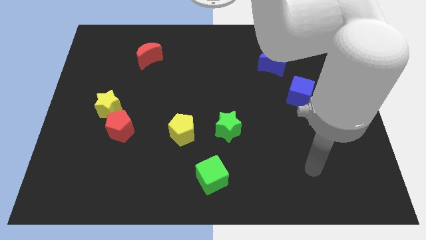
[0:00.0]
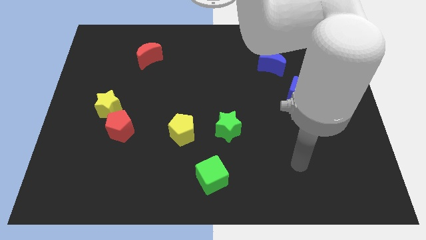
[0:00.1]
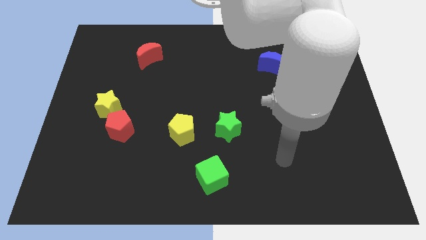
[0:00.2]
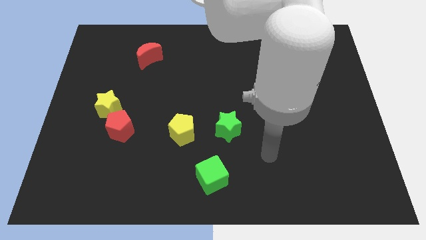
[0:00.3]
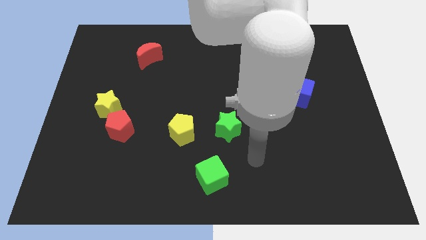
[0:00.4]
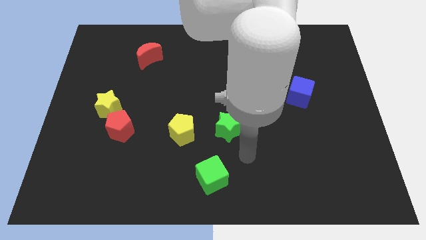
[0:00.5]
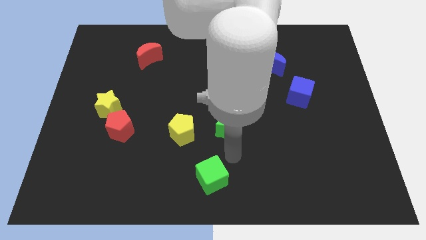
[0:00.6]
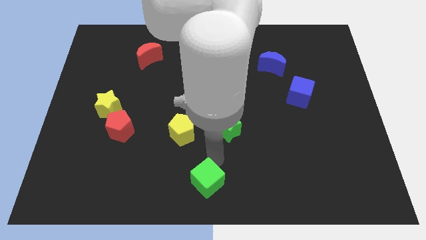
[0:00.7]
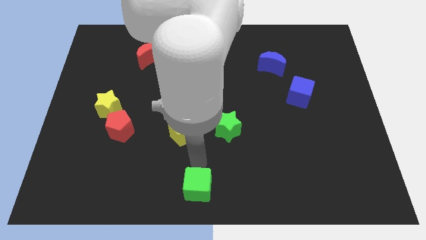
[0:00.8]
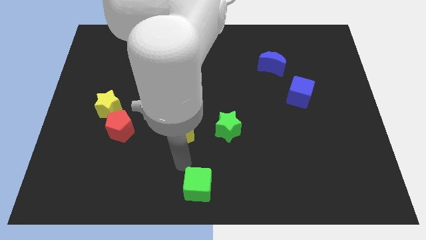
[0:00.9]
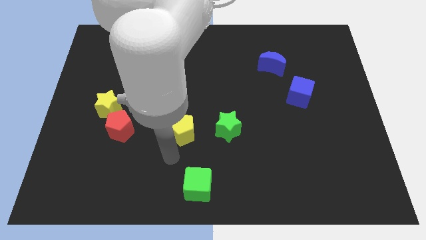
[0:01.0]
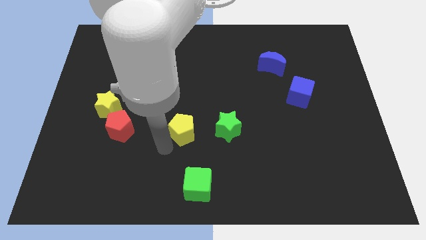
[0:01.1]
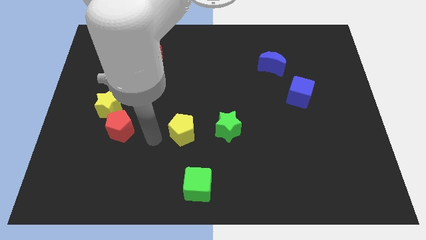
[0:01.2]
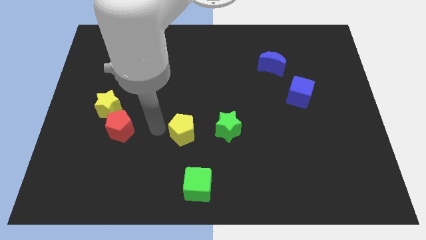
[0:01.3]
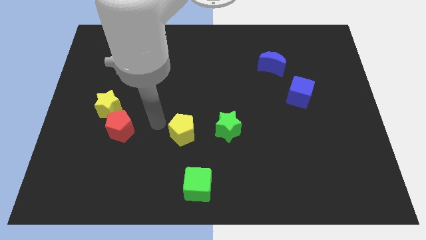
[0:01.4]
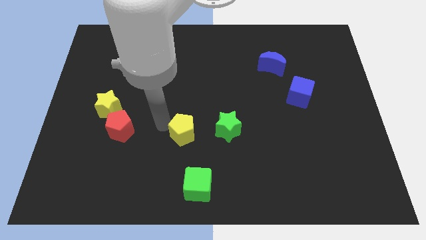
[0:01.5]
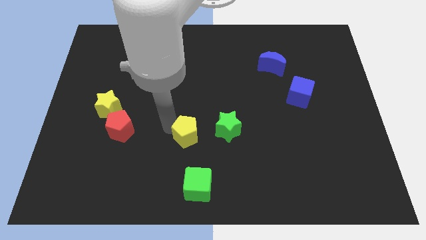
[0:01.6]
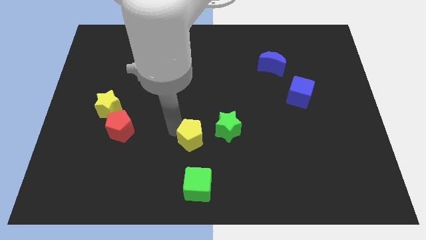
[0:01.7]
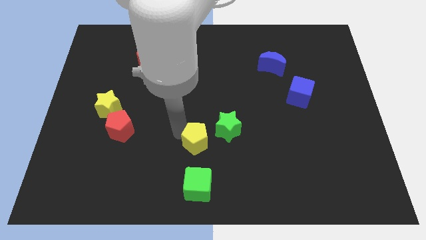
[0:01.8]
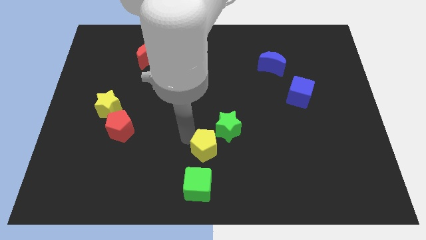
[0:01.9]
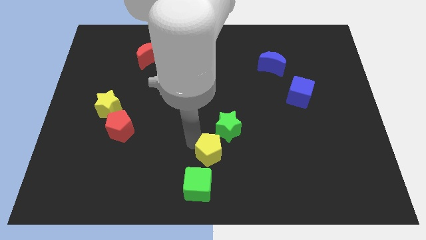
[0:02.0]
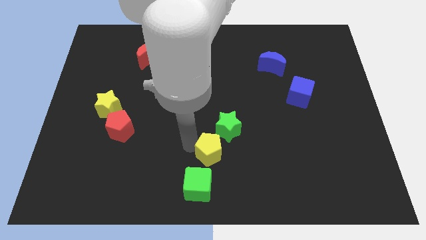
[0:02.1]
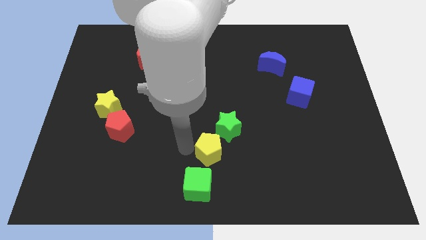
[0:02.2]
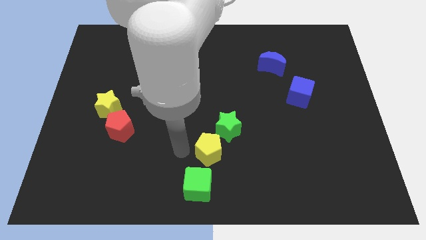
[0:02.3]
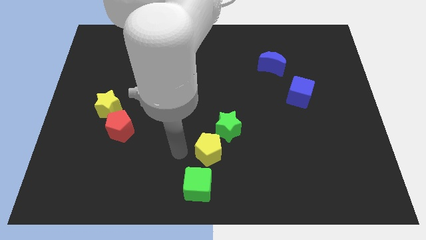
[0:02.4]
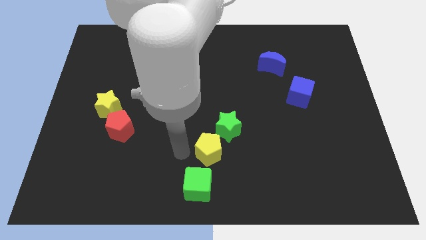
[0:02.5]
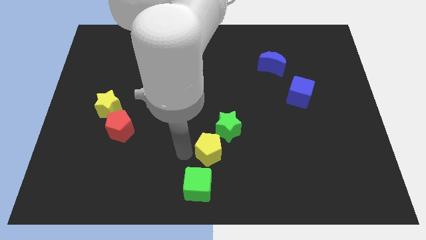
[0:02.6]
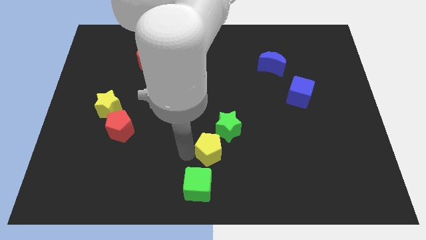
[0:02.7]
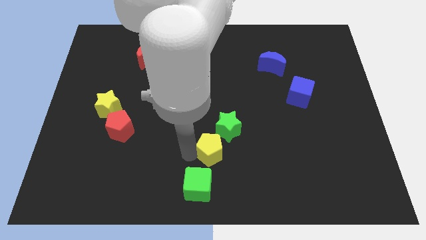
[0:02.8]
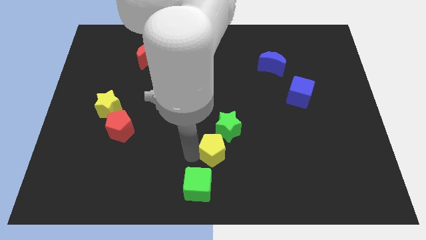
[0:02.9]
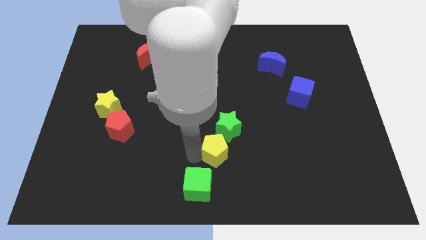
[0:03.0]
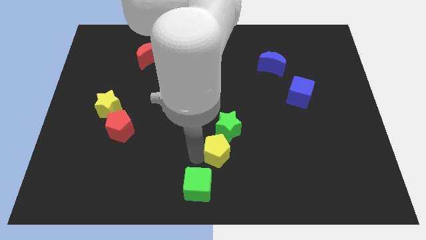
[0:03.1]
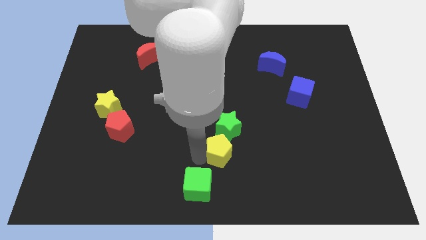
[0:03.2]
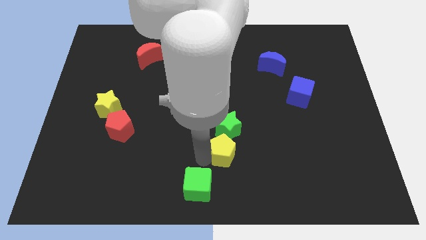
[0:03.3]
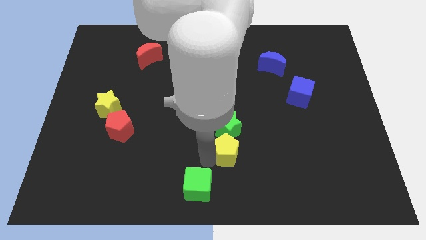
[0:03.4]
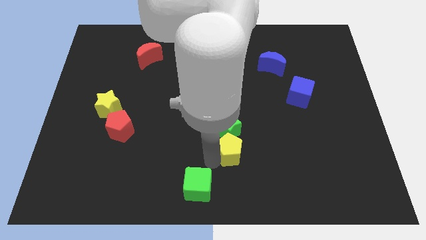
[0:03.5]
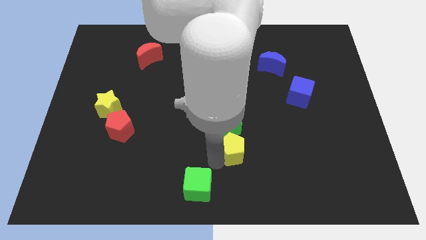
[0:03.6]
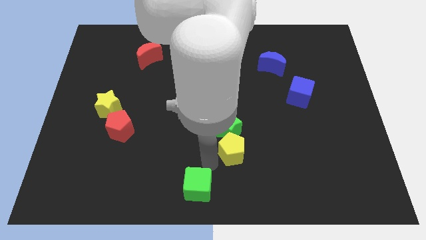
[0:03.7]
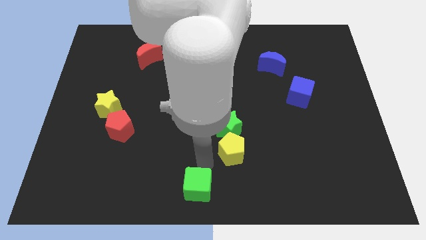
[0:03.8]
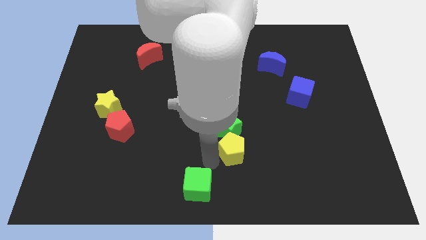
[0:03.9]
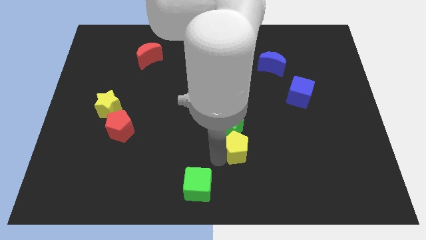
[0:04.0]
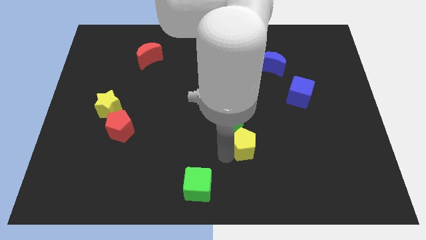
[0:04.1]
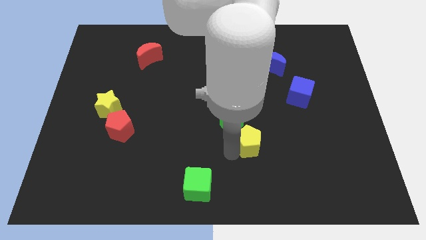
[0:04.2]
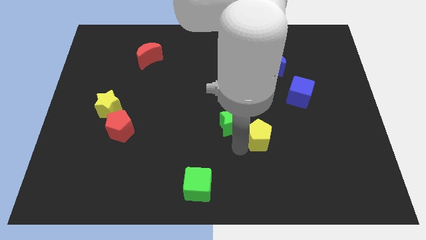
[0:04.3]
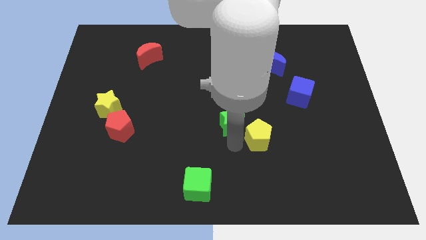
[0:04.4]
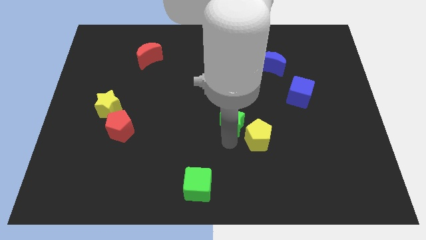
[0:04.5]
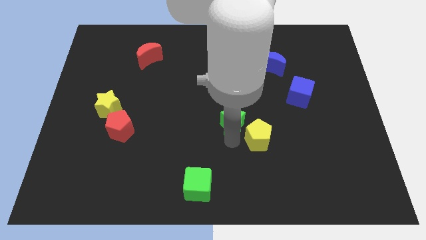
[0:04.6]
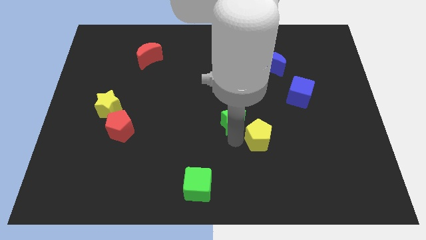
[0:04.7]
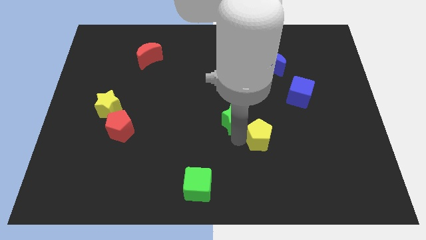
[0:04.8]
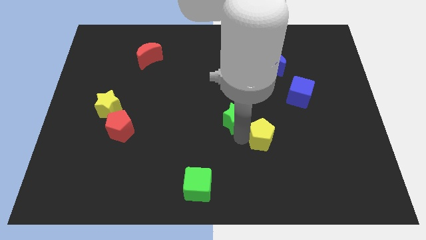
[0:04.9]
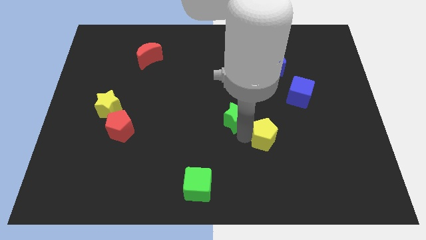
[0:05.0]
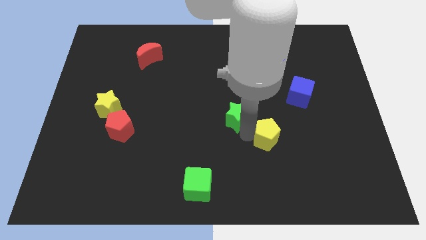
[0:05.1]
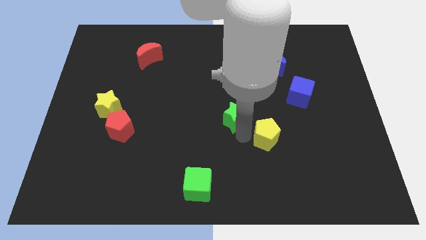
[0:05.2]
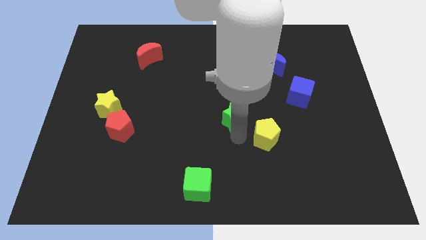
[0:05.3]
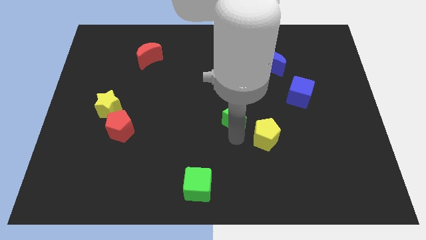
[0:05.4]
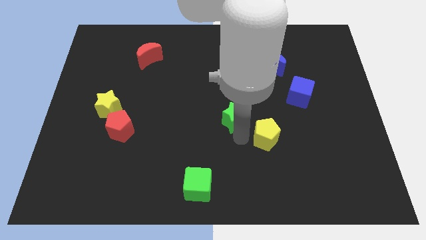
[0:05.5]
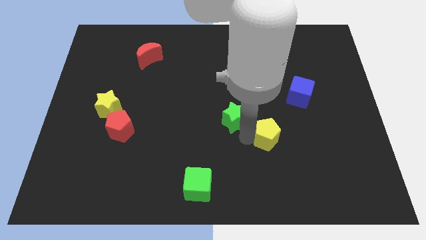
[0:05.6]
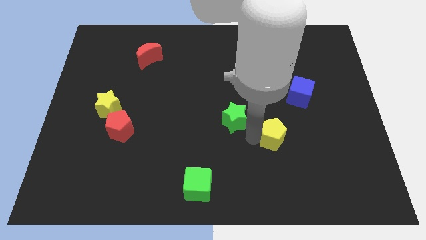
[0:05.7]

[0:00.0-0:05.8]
push the yellow pentagon right

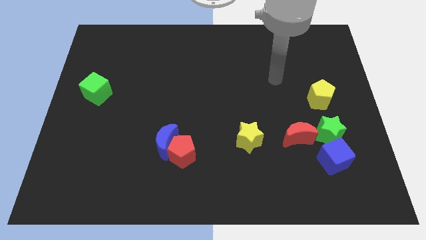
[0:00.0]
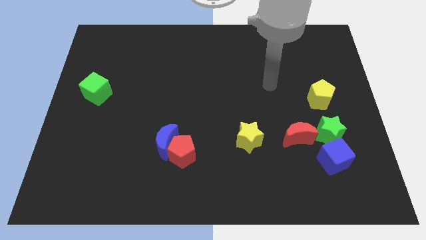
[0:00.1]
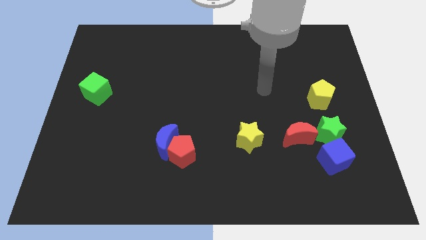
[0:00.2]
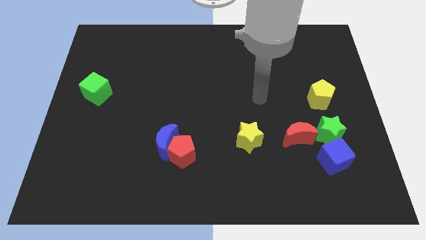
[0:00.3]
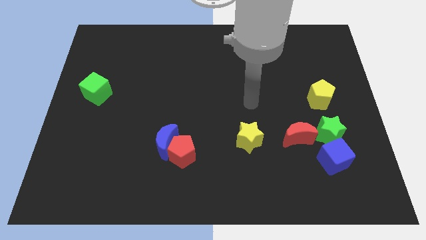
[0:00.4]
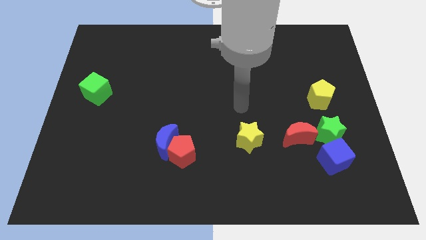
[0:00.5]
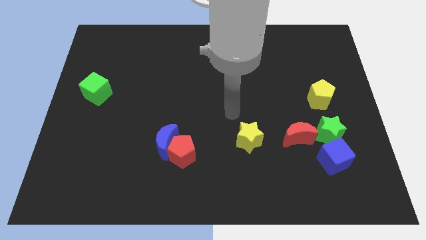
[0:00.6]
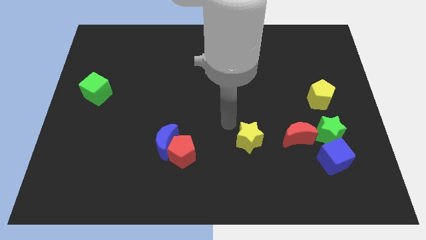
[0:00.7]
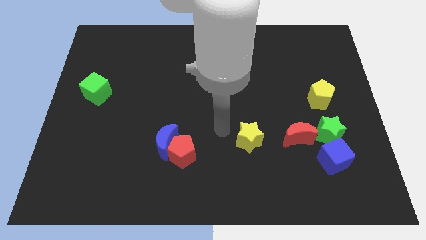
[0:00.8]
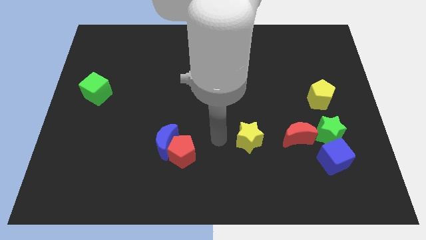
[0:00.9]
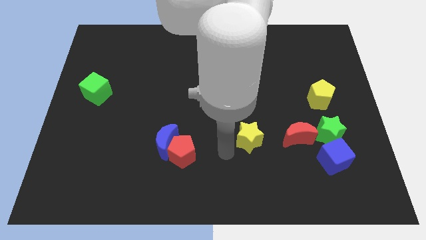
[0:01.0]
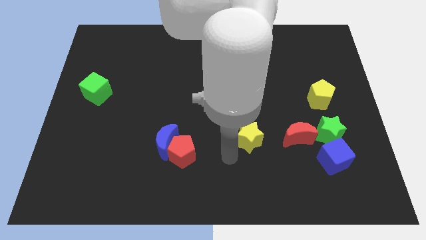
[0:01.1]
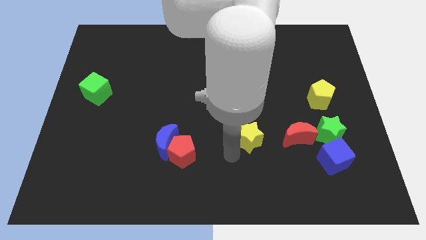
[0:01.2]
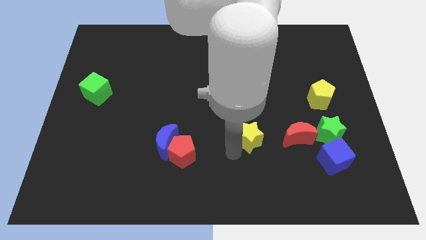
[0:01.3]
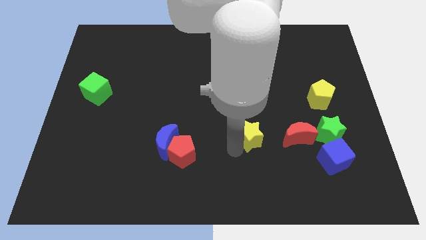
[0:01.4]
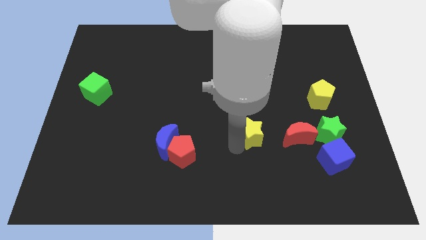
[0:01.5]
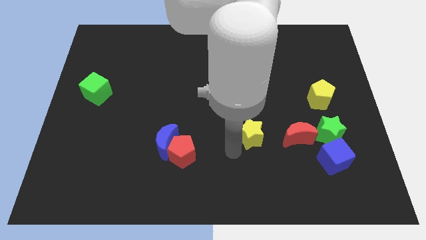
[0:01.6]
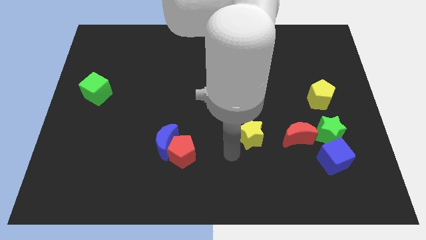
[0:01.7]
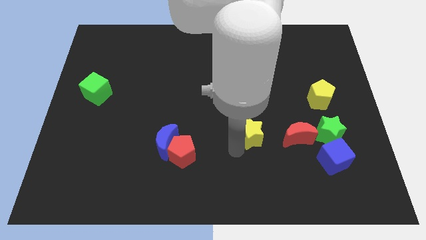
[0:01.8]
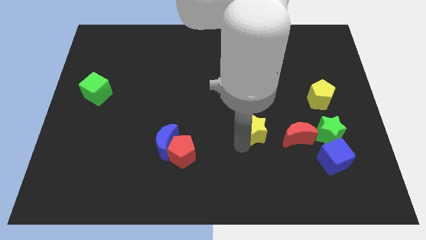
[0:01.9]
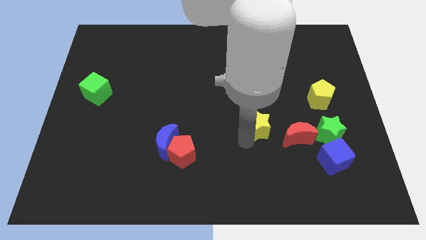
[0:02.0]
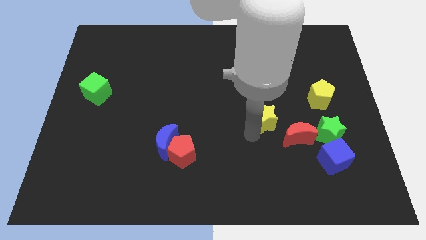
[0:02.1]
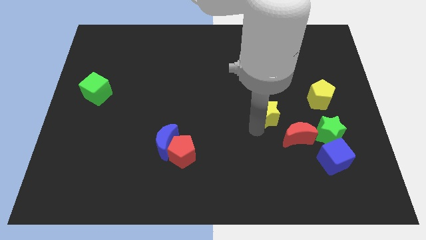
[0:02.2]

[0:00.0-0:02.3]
move the yellow star up and to the right somewhat

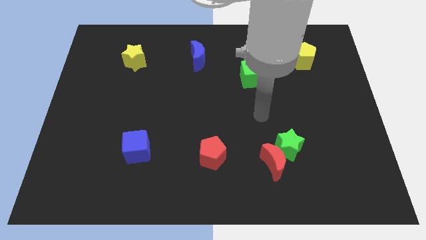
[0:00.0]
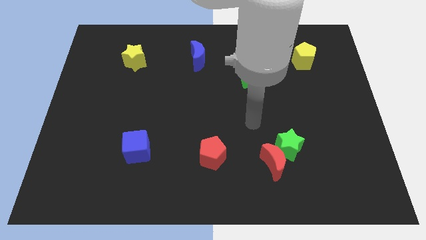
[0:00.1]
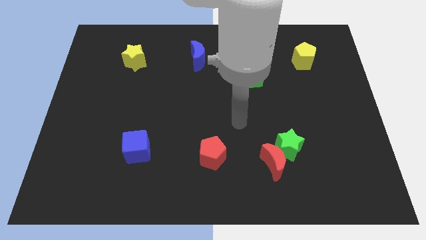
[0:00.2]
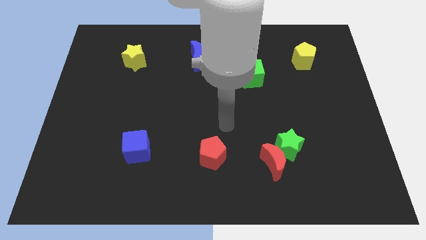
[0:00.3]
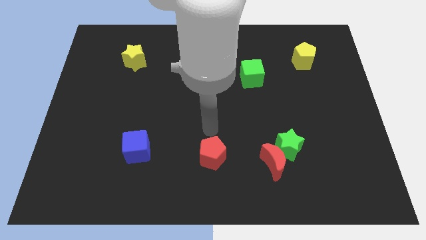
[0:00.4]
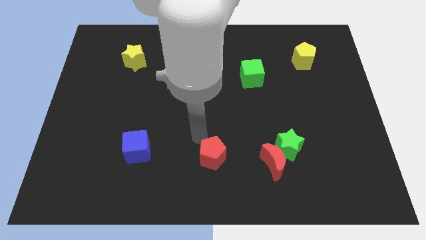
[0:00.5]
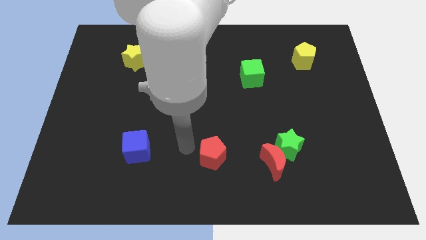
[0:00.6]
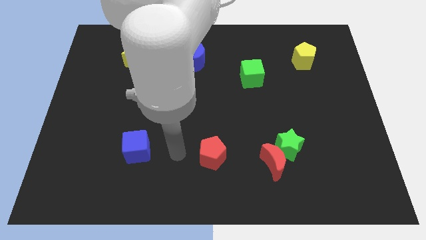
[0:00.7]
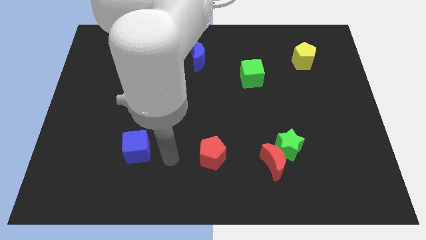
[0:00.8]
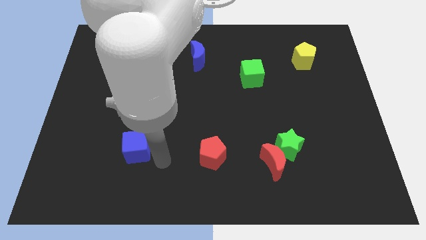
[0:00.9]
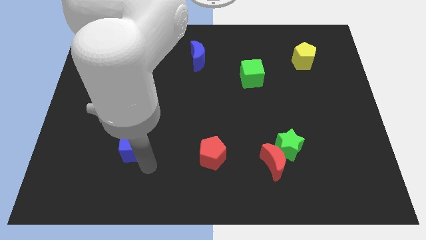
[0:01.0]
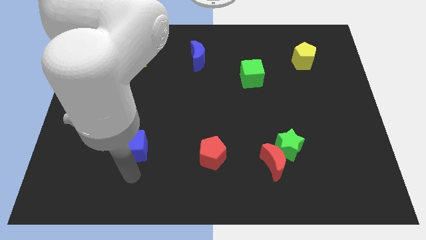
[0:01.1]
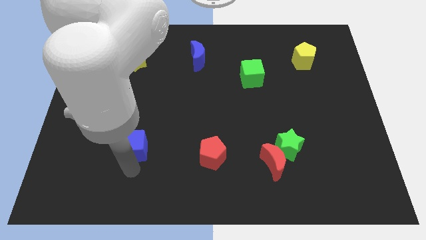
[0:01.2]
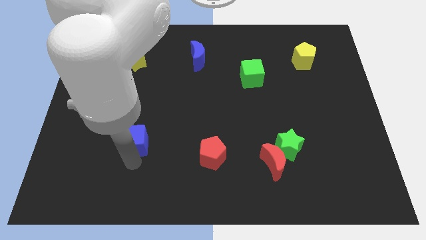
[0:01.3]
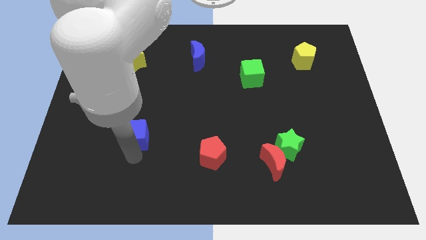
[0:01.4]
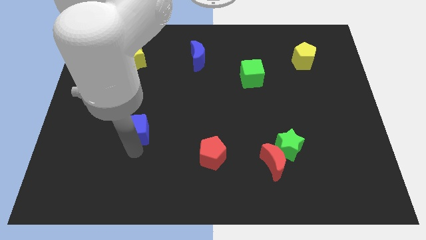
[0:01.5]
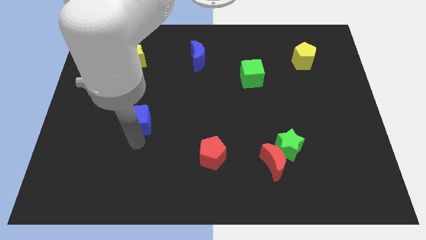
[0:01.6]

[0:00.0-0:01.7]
push the blue cube upwards a bit
